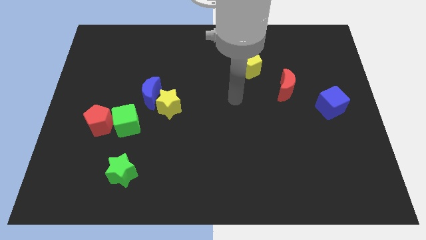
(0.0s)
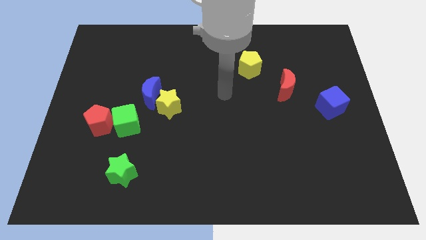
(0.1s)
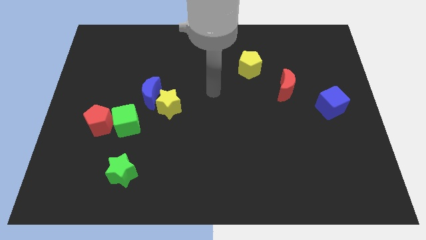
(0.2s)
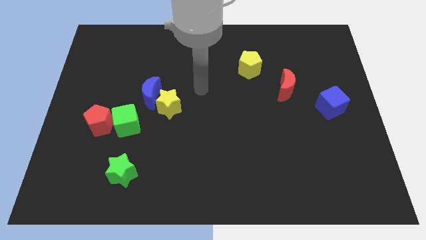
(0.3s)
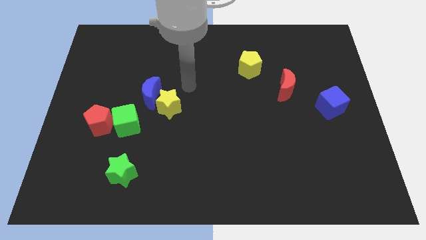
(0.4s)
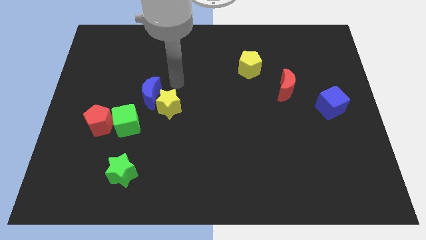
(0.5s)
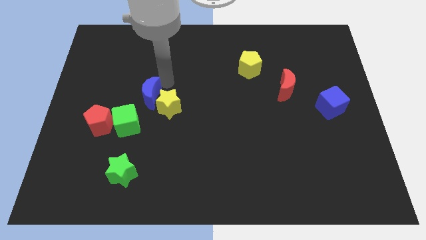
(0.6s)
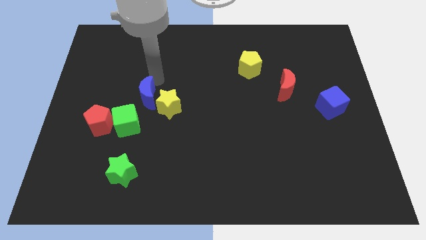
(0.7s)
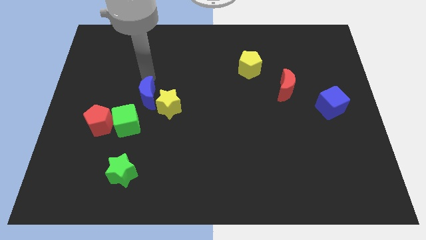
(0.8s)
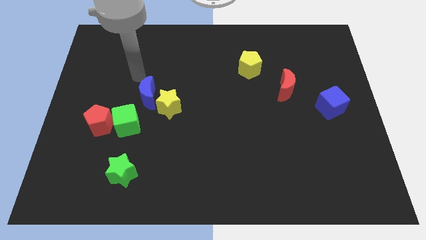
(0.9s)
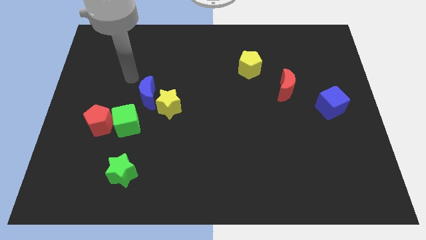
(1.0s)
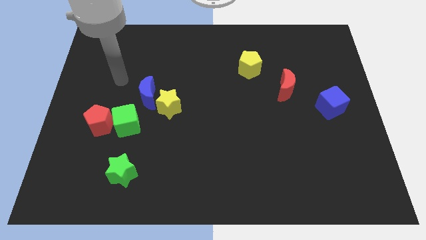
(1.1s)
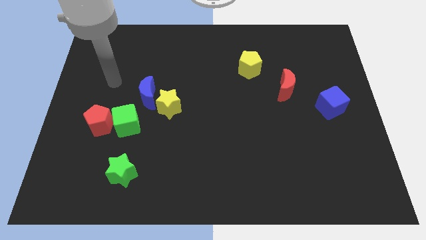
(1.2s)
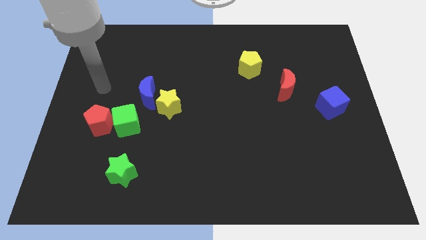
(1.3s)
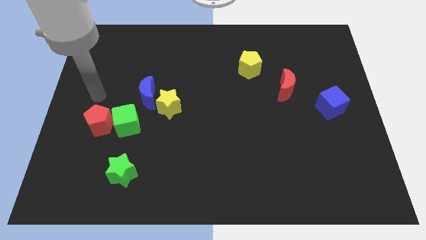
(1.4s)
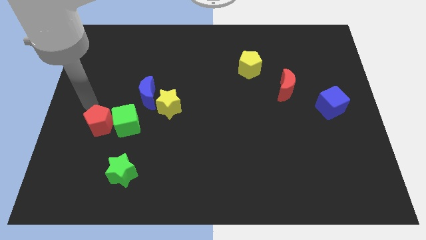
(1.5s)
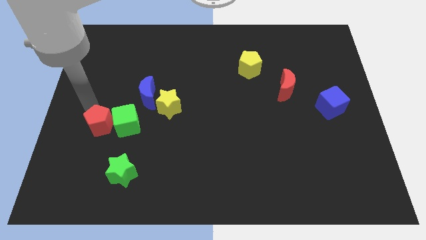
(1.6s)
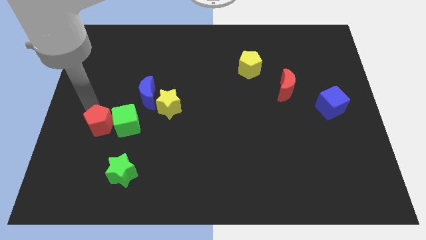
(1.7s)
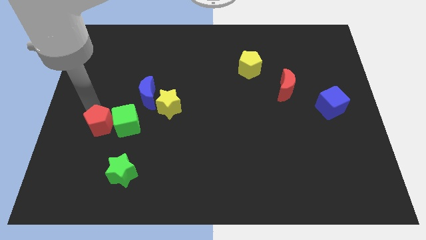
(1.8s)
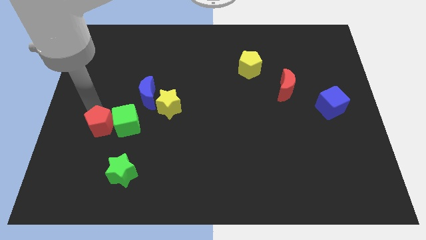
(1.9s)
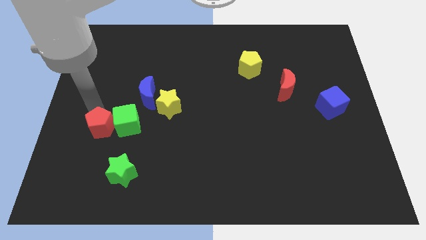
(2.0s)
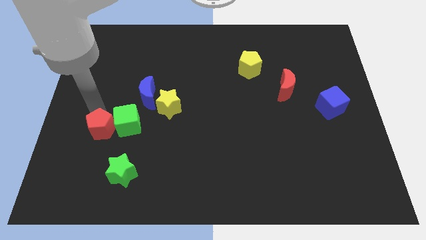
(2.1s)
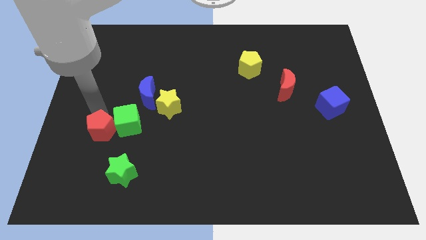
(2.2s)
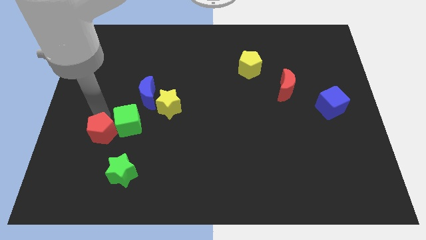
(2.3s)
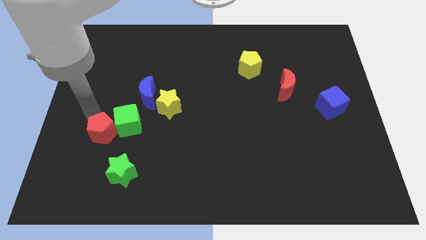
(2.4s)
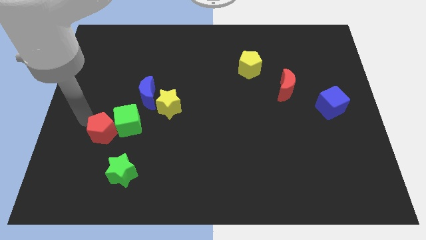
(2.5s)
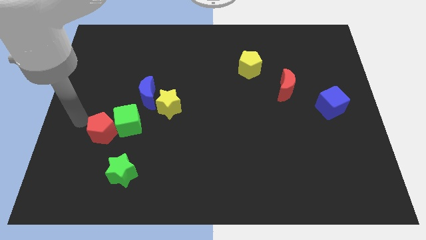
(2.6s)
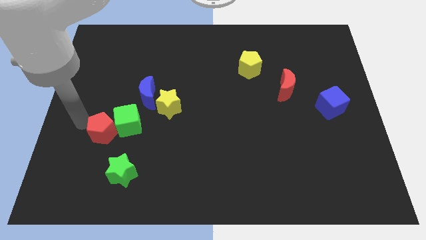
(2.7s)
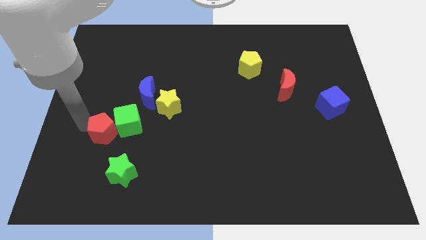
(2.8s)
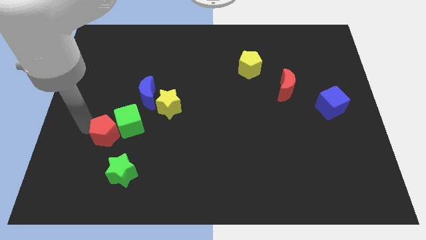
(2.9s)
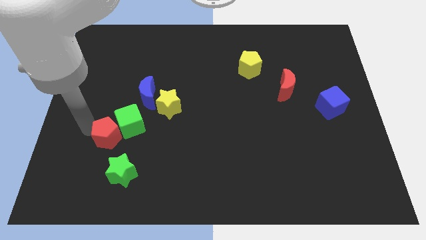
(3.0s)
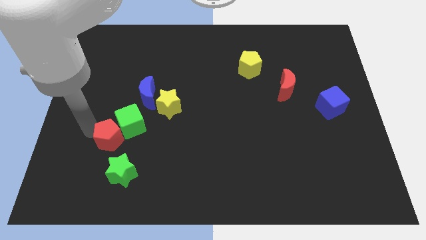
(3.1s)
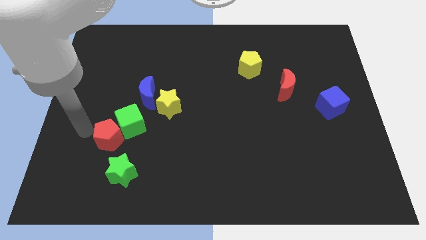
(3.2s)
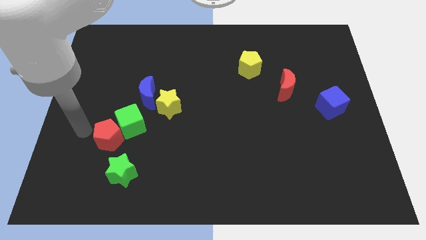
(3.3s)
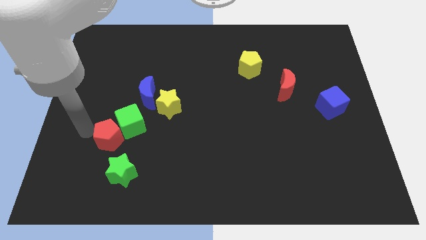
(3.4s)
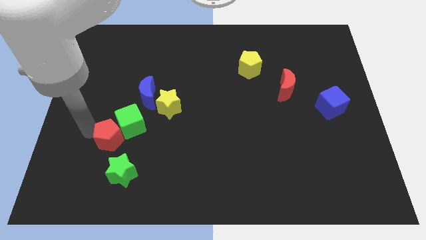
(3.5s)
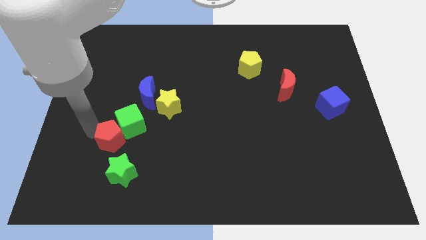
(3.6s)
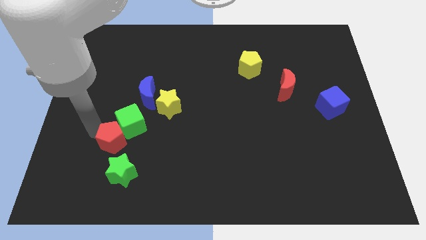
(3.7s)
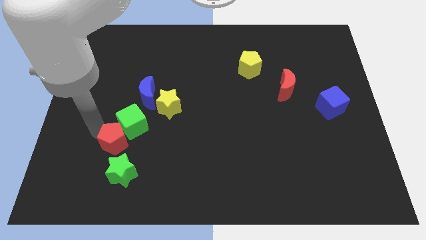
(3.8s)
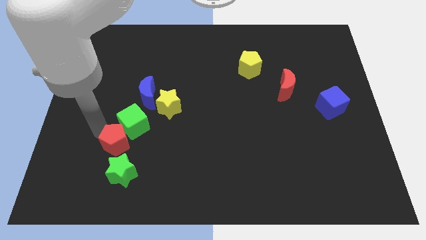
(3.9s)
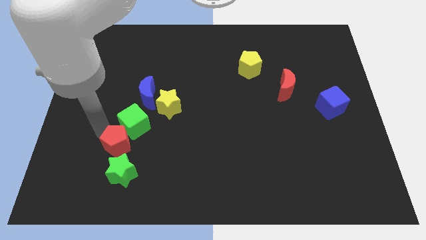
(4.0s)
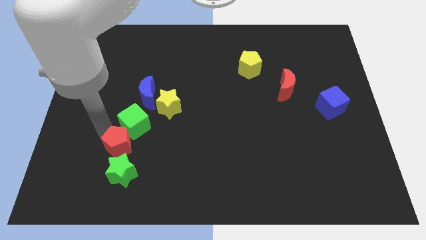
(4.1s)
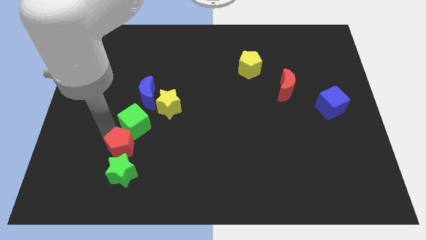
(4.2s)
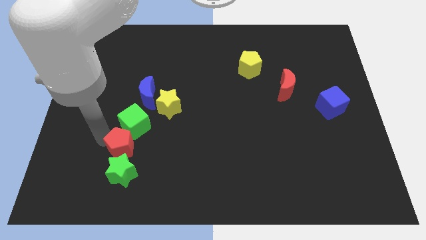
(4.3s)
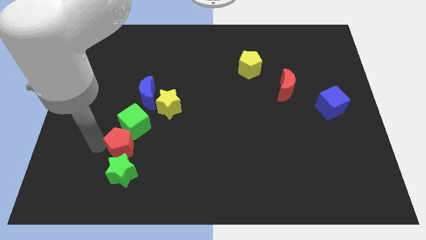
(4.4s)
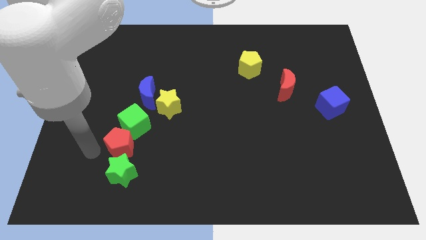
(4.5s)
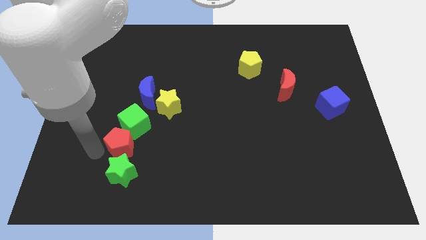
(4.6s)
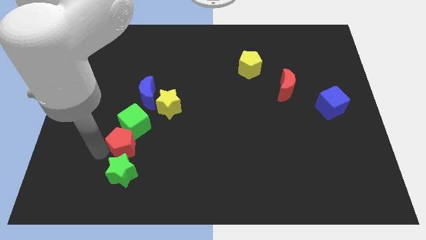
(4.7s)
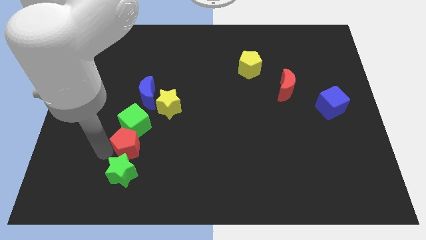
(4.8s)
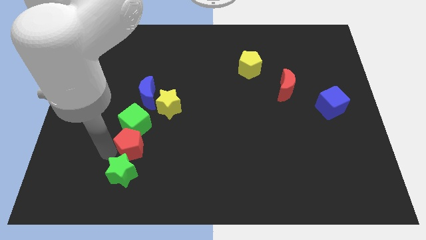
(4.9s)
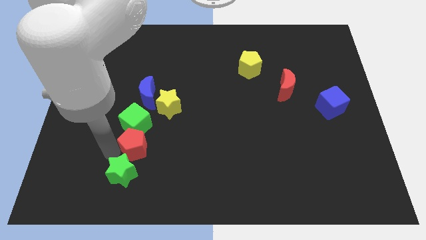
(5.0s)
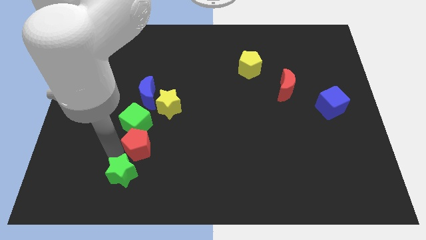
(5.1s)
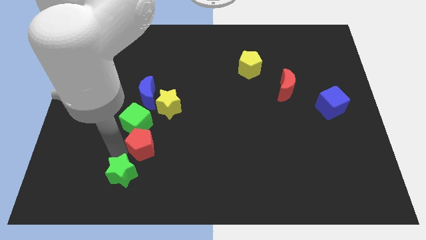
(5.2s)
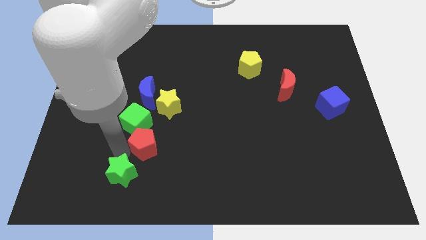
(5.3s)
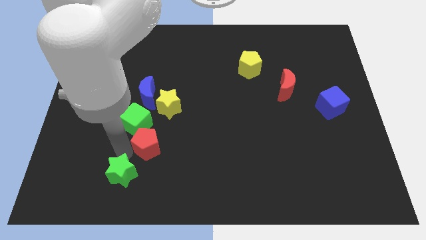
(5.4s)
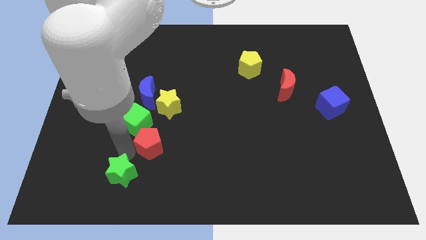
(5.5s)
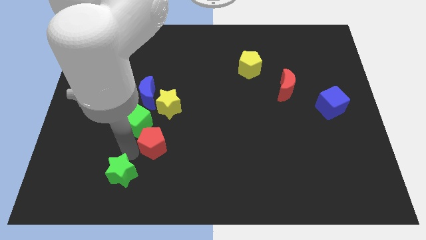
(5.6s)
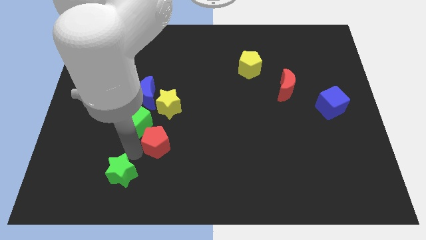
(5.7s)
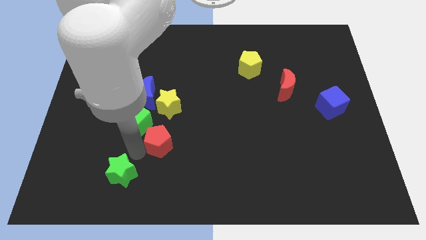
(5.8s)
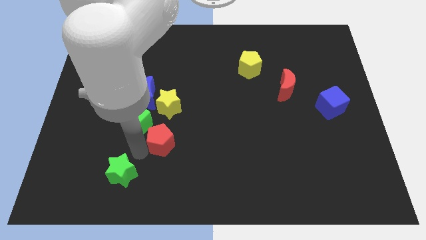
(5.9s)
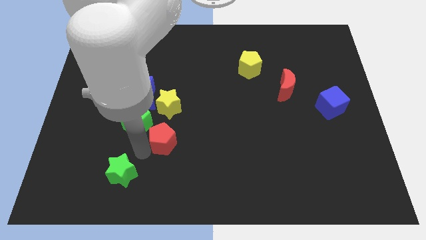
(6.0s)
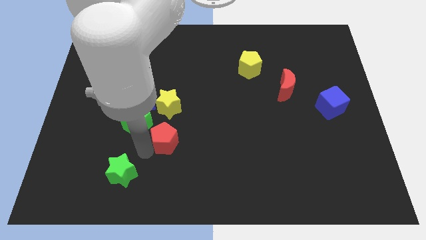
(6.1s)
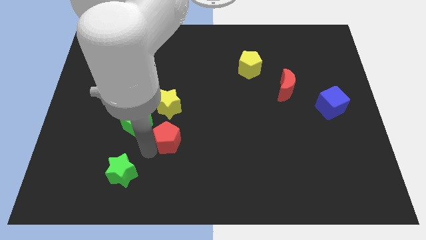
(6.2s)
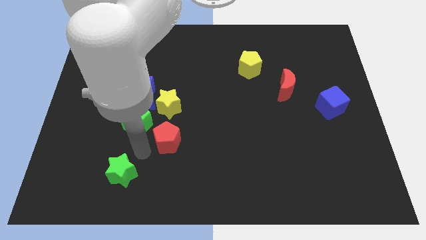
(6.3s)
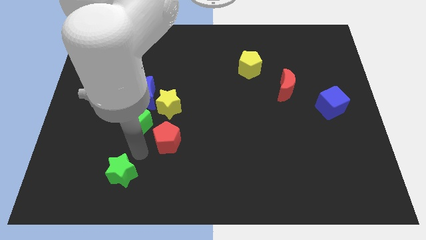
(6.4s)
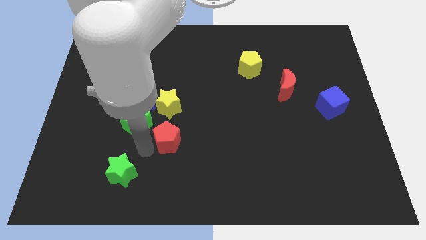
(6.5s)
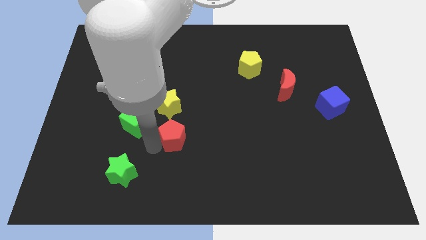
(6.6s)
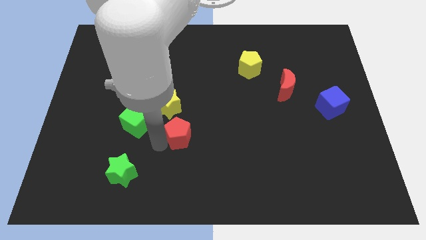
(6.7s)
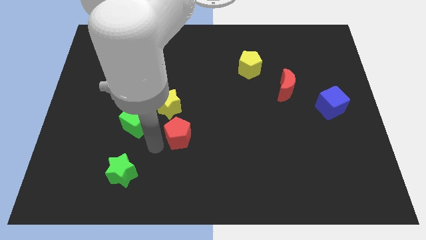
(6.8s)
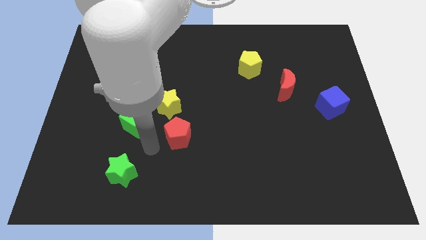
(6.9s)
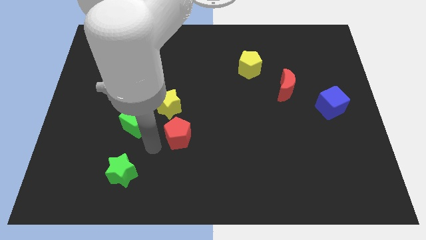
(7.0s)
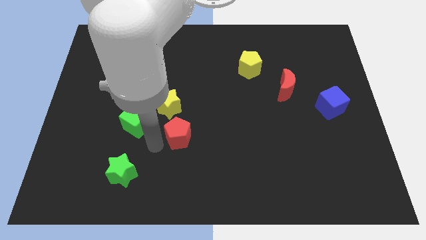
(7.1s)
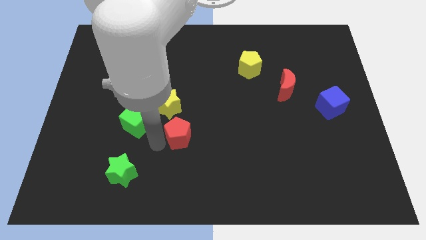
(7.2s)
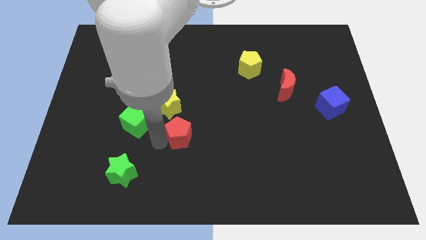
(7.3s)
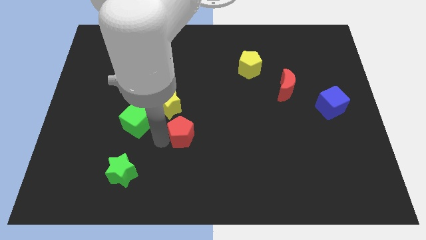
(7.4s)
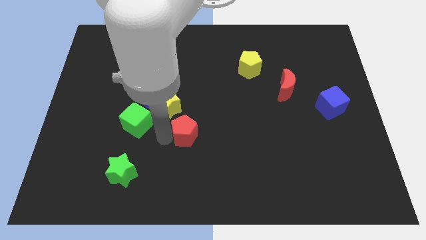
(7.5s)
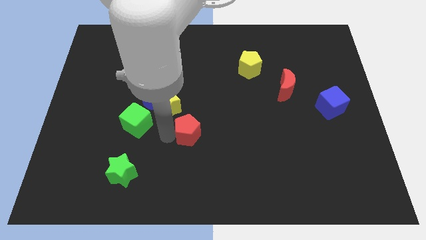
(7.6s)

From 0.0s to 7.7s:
push the red pentagon to the right
